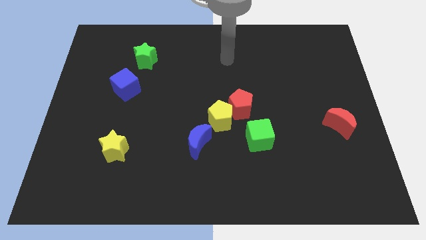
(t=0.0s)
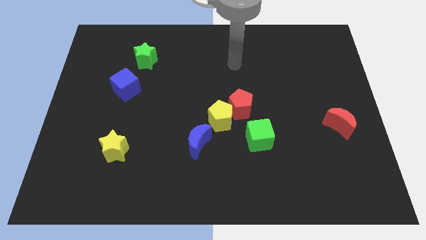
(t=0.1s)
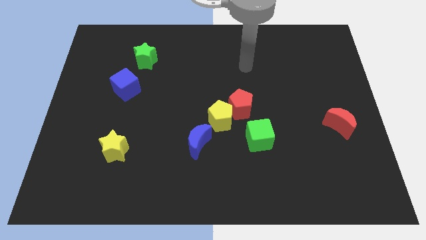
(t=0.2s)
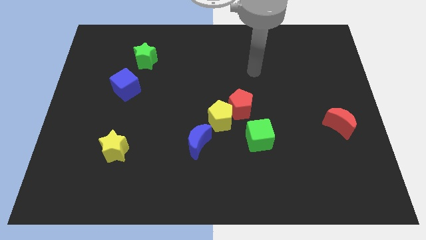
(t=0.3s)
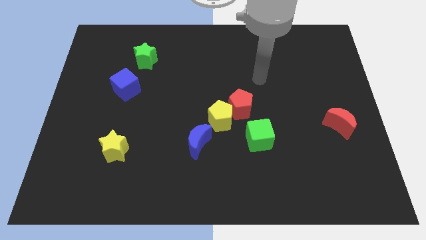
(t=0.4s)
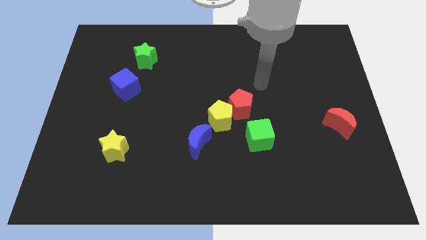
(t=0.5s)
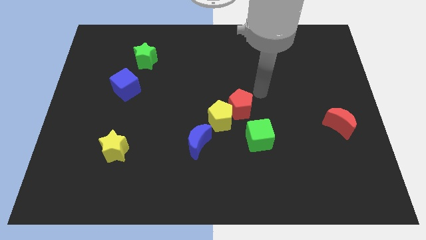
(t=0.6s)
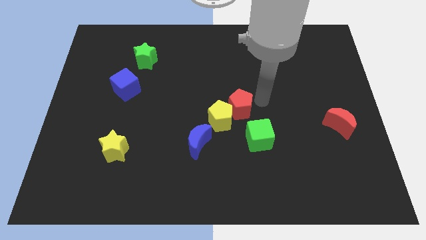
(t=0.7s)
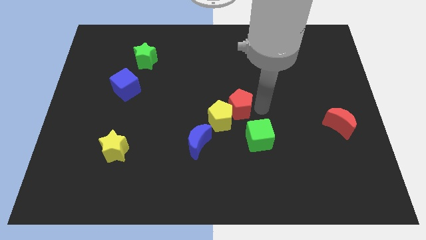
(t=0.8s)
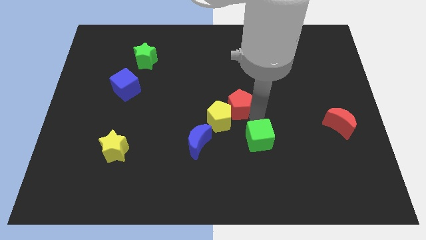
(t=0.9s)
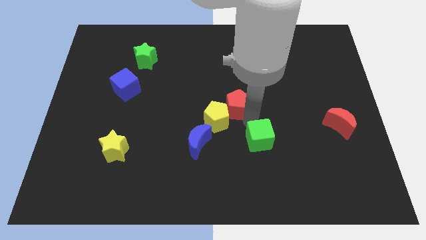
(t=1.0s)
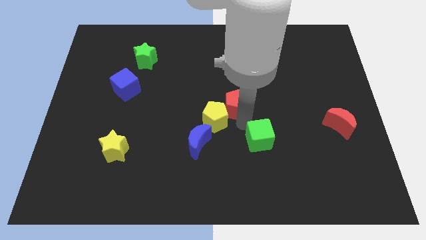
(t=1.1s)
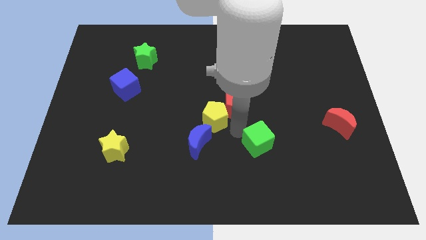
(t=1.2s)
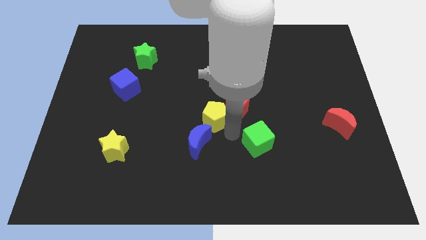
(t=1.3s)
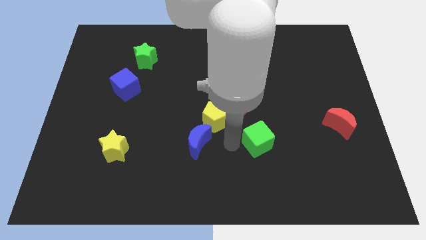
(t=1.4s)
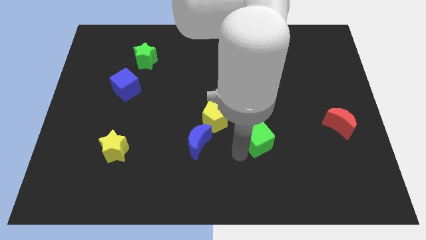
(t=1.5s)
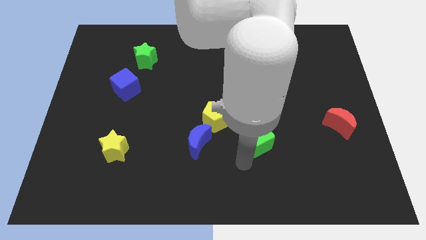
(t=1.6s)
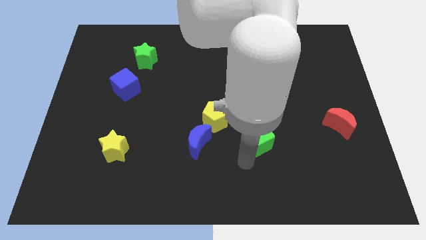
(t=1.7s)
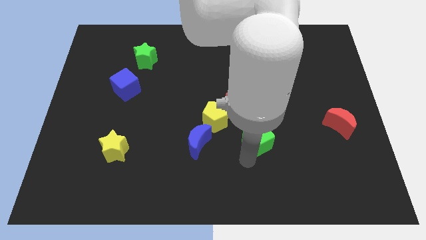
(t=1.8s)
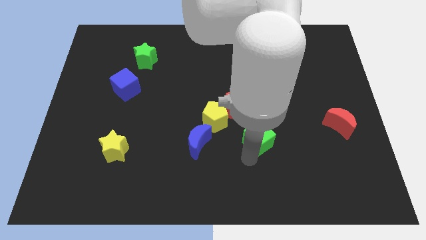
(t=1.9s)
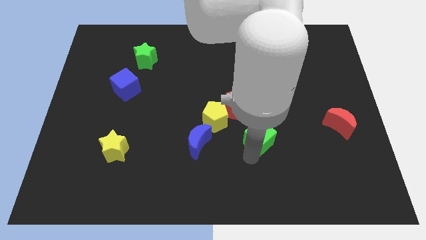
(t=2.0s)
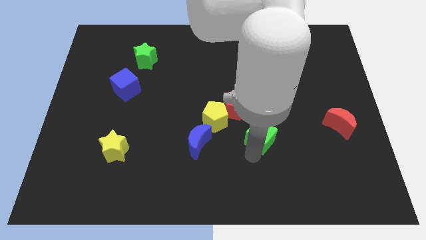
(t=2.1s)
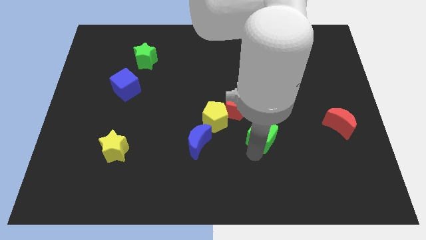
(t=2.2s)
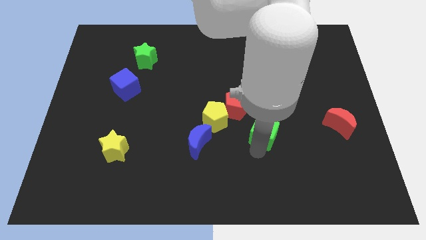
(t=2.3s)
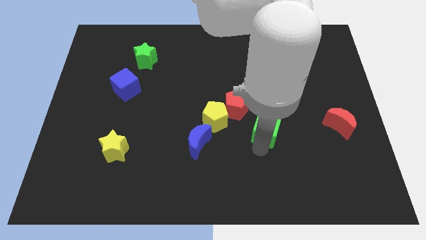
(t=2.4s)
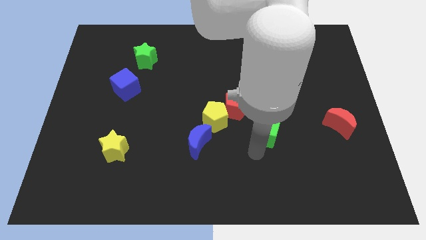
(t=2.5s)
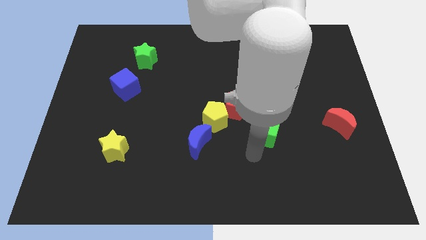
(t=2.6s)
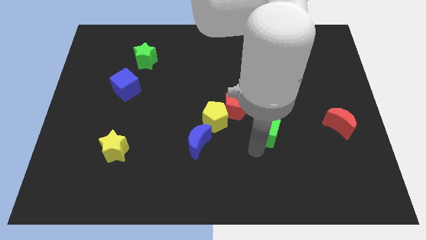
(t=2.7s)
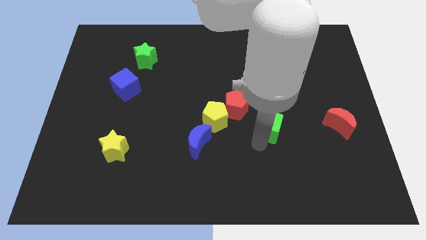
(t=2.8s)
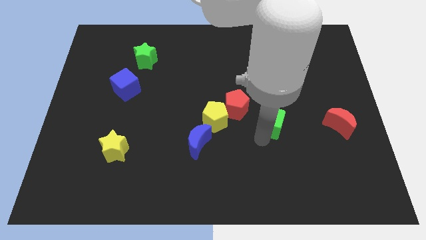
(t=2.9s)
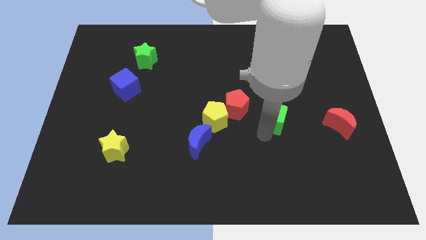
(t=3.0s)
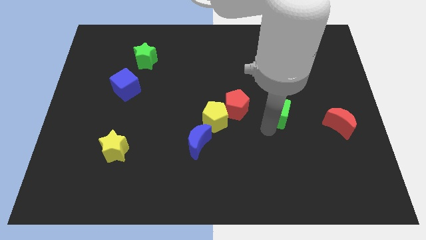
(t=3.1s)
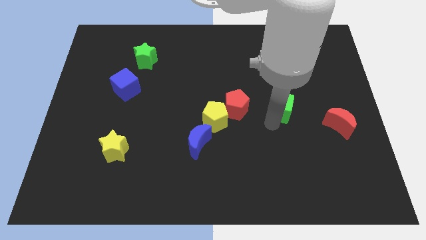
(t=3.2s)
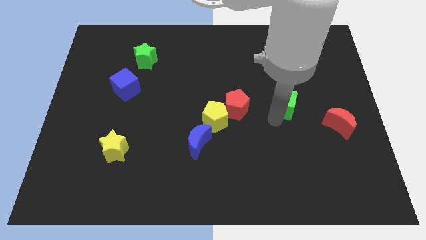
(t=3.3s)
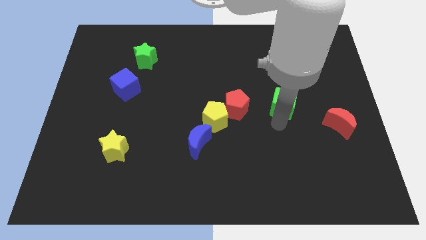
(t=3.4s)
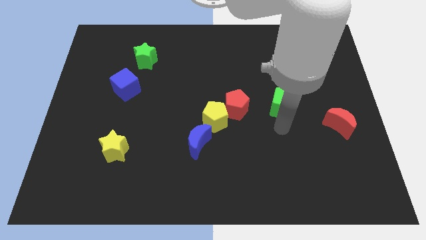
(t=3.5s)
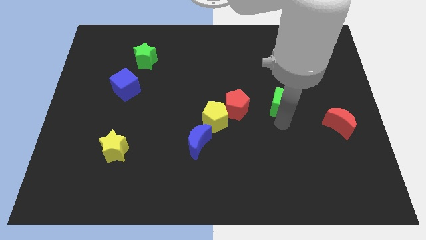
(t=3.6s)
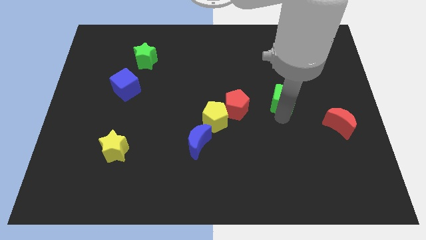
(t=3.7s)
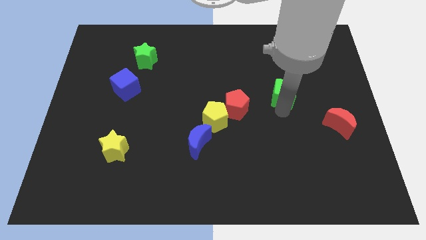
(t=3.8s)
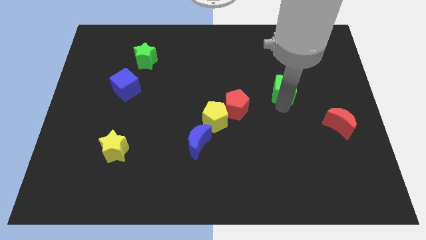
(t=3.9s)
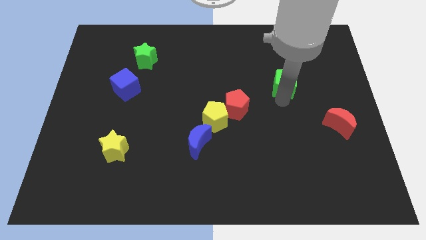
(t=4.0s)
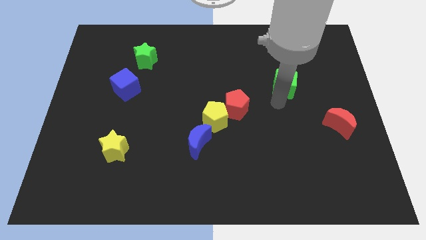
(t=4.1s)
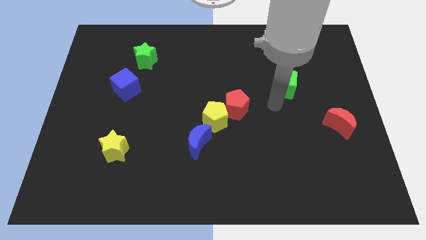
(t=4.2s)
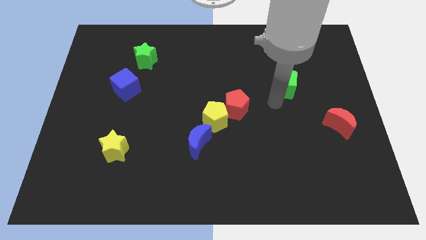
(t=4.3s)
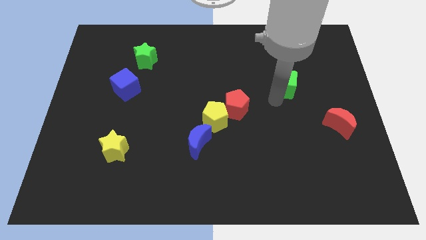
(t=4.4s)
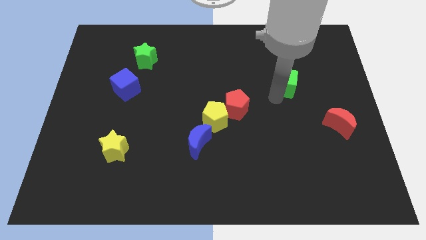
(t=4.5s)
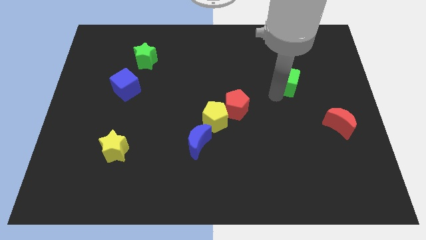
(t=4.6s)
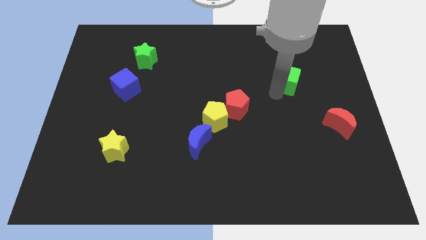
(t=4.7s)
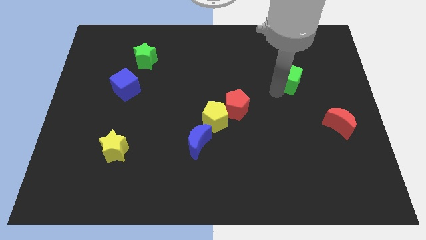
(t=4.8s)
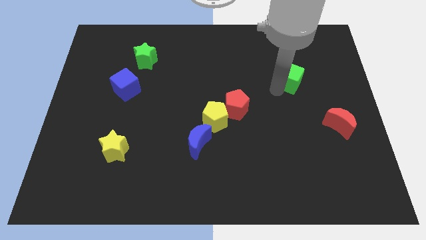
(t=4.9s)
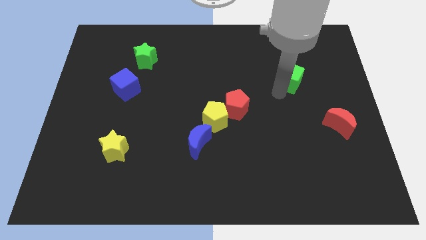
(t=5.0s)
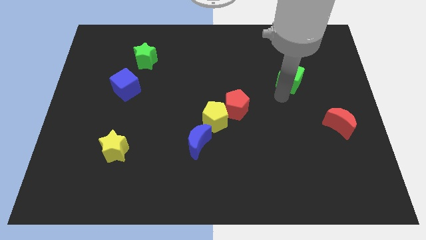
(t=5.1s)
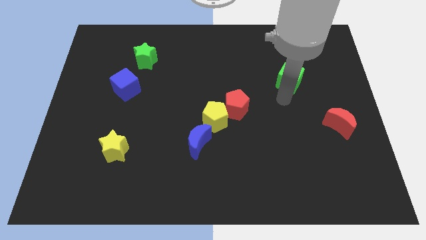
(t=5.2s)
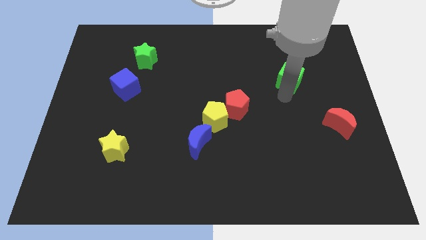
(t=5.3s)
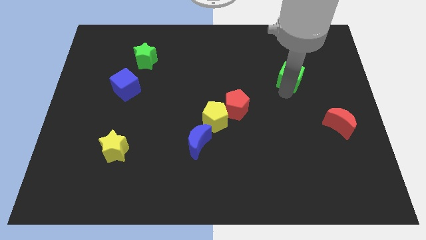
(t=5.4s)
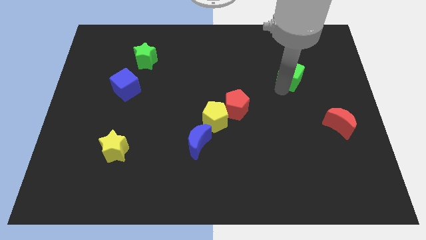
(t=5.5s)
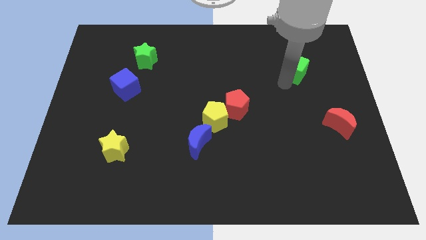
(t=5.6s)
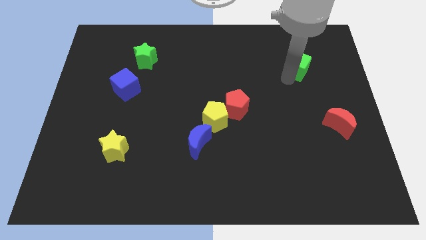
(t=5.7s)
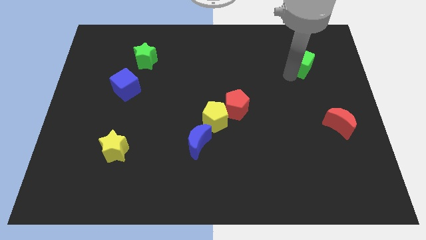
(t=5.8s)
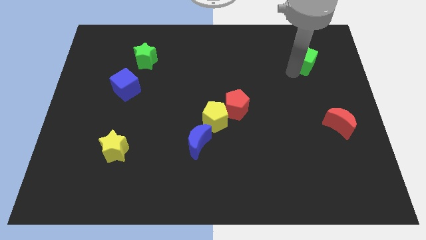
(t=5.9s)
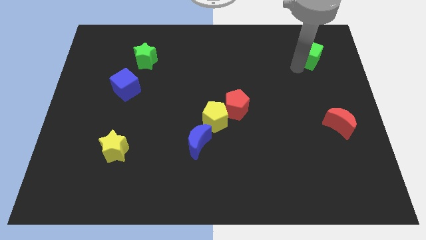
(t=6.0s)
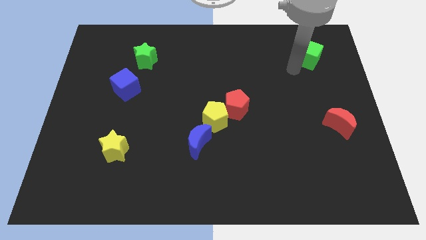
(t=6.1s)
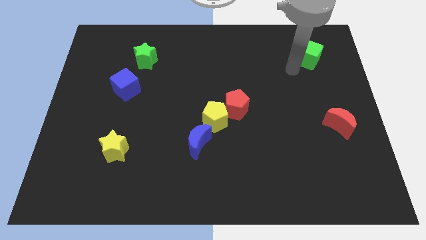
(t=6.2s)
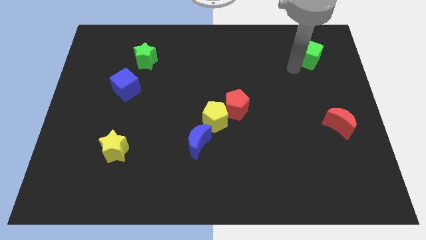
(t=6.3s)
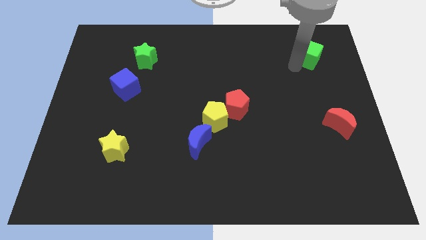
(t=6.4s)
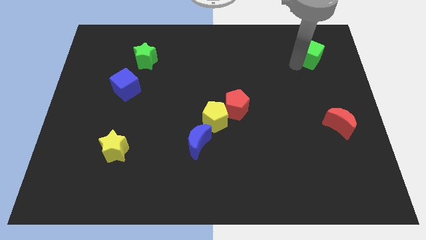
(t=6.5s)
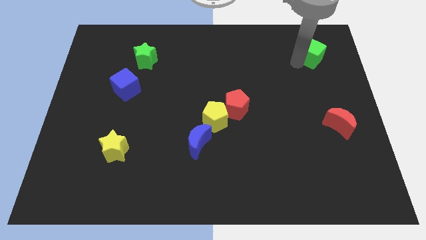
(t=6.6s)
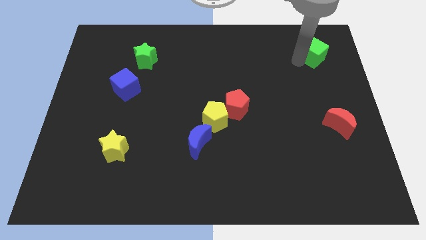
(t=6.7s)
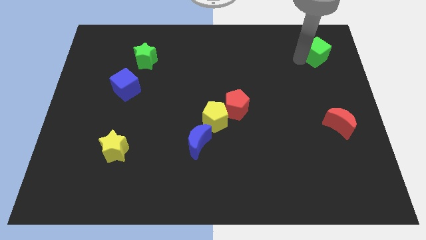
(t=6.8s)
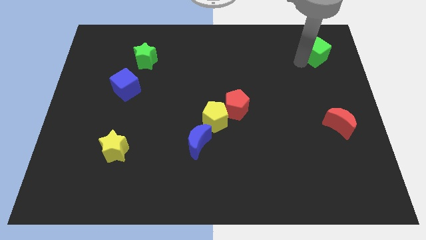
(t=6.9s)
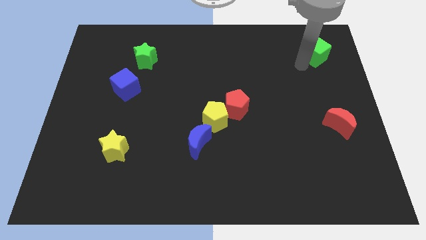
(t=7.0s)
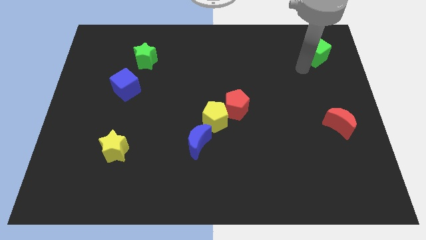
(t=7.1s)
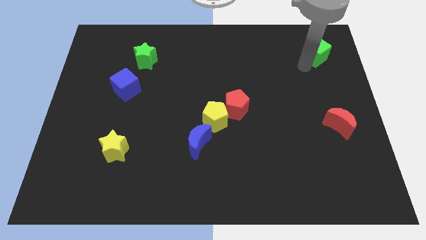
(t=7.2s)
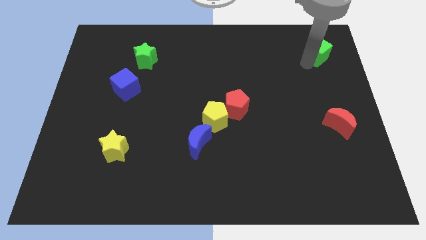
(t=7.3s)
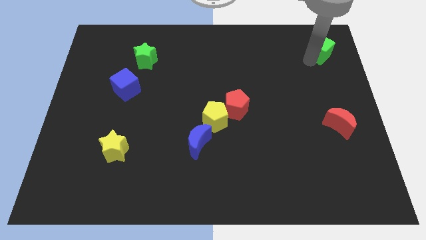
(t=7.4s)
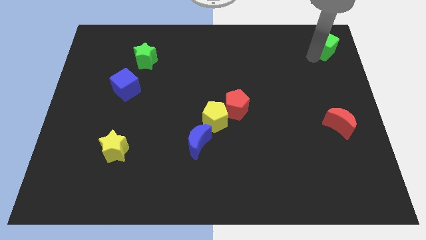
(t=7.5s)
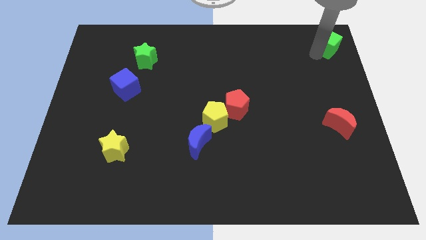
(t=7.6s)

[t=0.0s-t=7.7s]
push the green cube to the top right of the board
